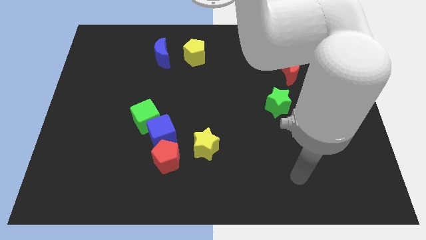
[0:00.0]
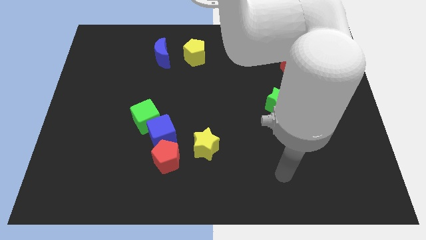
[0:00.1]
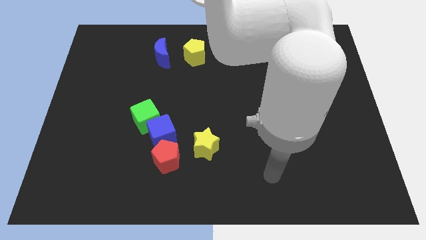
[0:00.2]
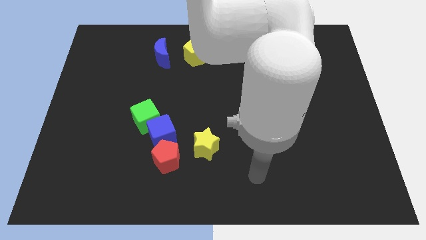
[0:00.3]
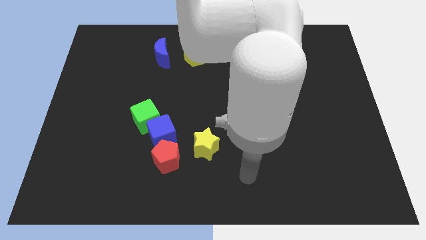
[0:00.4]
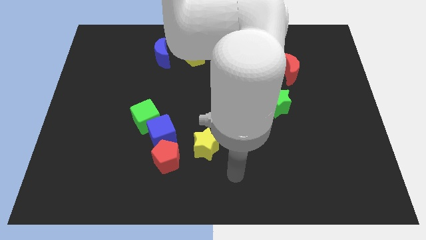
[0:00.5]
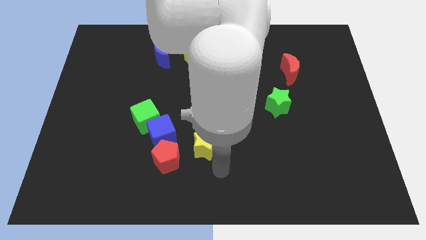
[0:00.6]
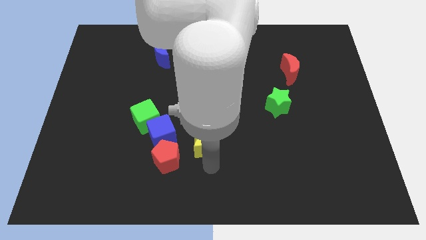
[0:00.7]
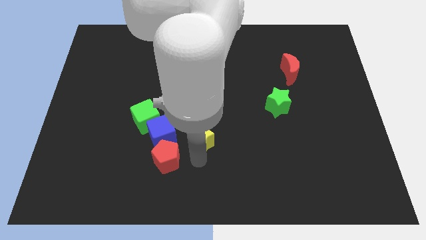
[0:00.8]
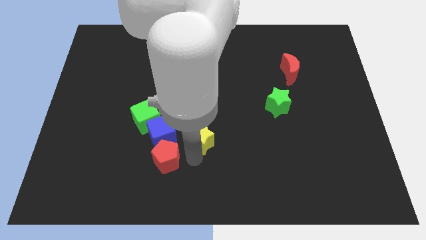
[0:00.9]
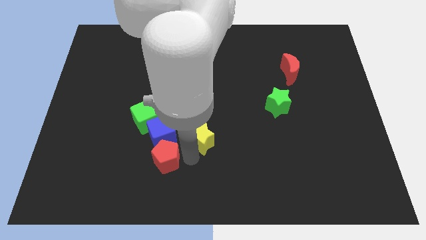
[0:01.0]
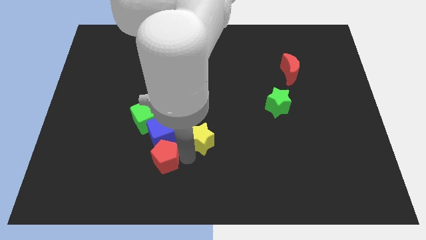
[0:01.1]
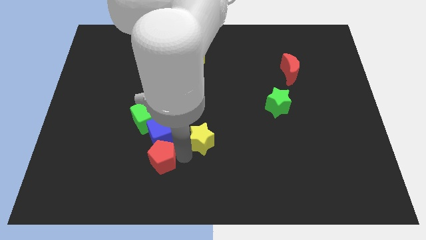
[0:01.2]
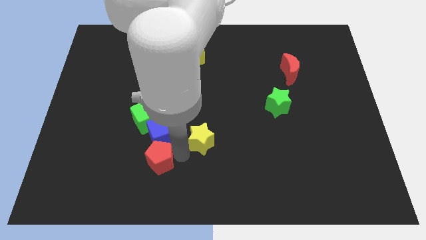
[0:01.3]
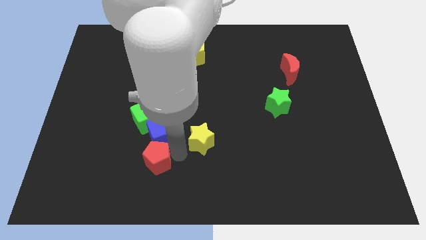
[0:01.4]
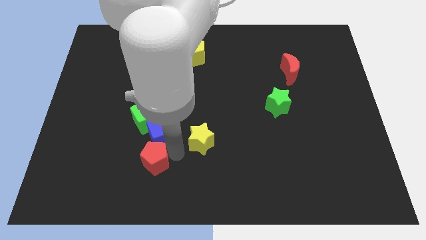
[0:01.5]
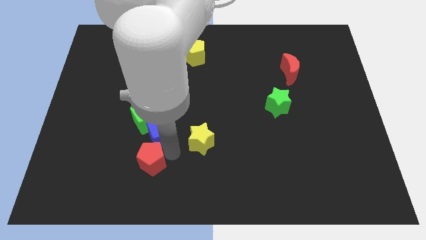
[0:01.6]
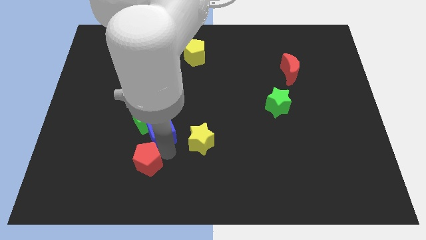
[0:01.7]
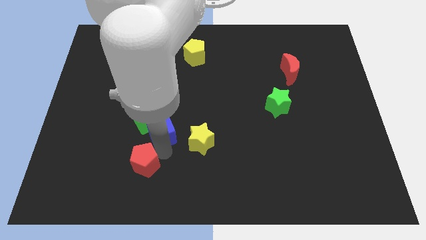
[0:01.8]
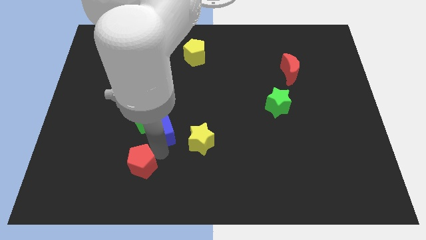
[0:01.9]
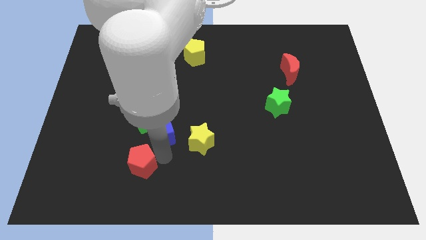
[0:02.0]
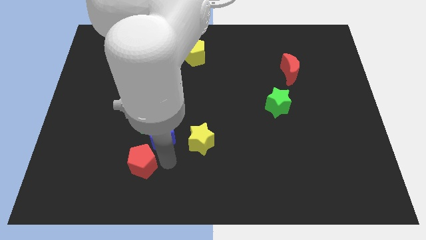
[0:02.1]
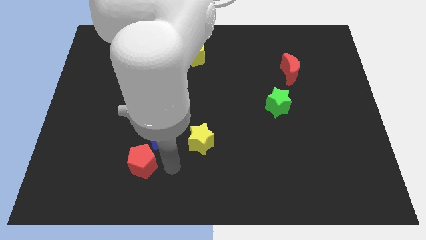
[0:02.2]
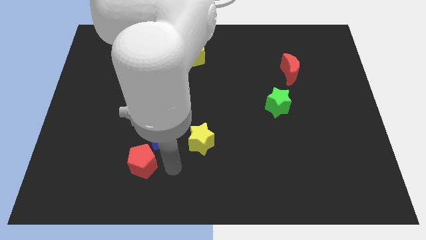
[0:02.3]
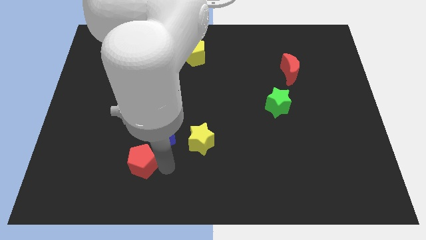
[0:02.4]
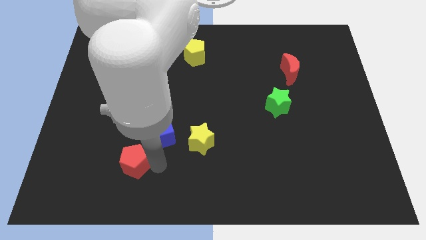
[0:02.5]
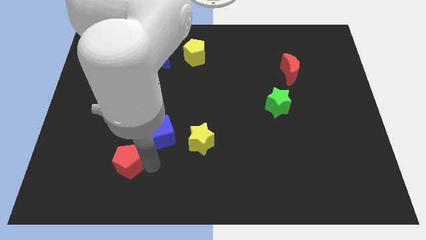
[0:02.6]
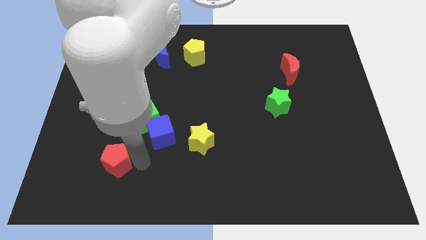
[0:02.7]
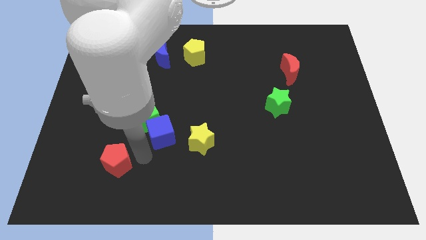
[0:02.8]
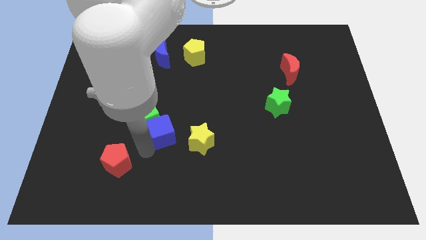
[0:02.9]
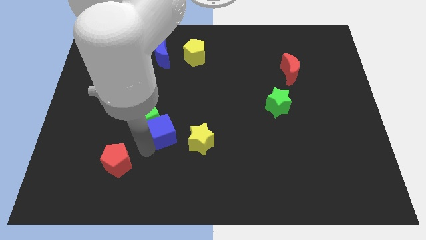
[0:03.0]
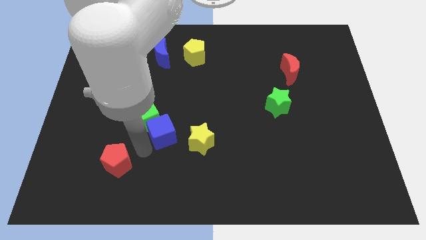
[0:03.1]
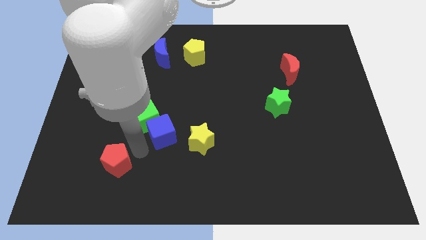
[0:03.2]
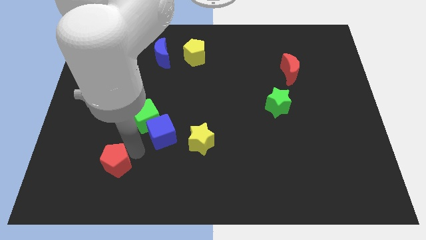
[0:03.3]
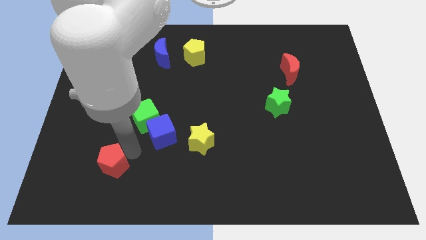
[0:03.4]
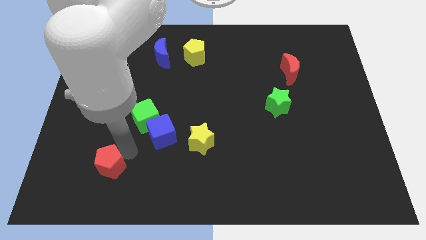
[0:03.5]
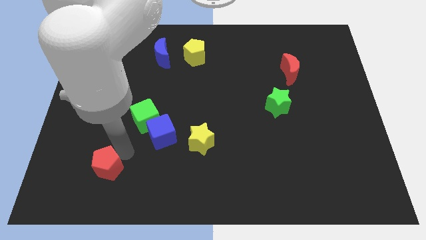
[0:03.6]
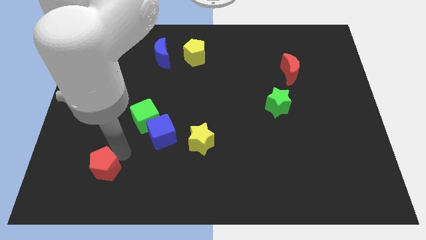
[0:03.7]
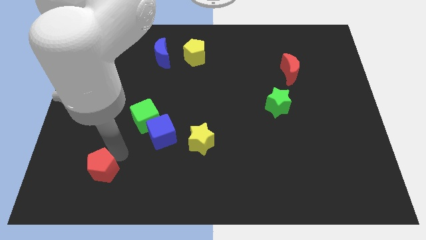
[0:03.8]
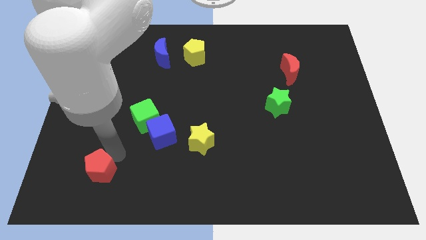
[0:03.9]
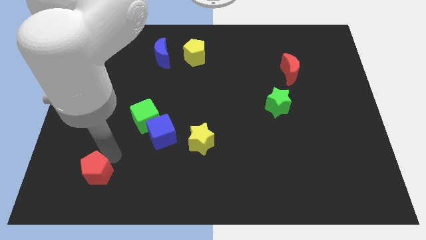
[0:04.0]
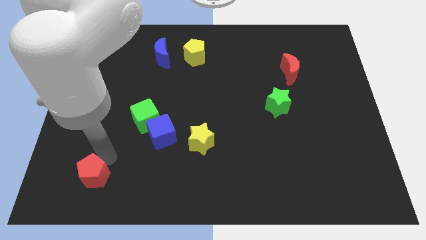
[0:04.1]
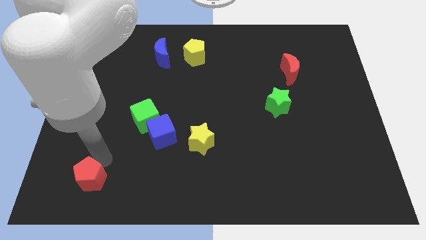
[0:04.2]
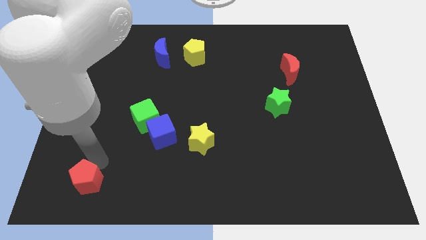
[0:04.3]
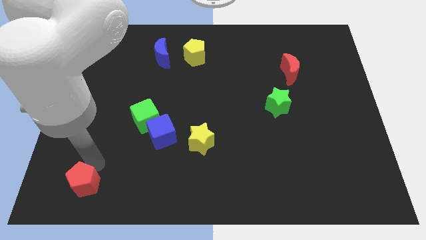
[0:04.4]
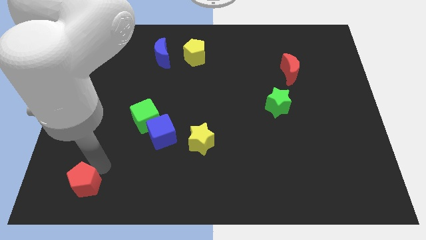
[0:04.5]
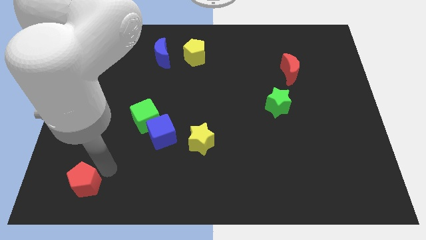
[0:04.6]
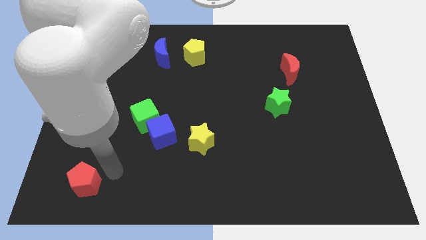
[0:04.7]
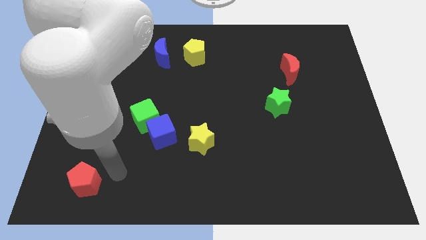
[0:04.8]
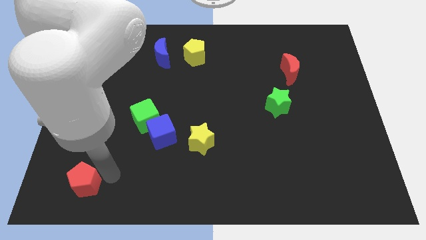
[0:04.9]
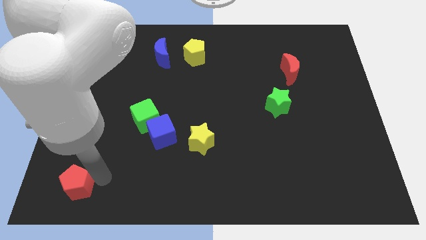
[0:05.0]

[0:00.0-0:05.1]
move the red pentagon to the bottom left corner

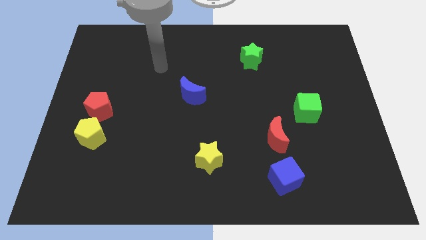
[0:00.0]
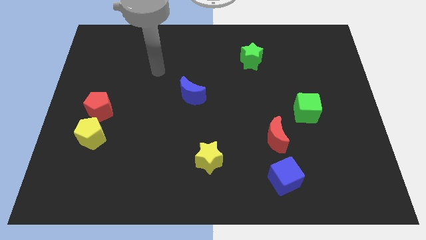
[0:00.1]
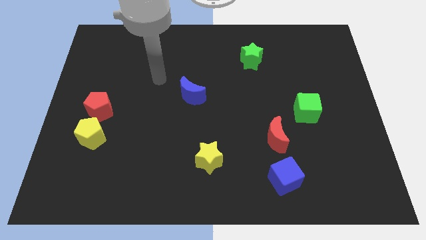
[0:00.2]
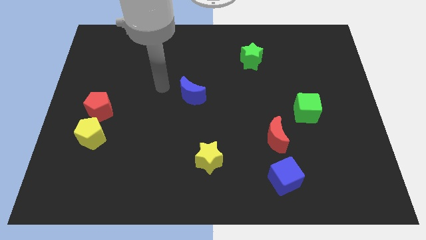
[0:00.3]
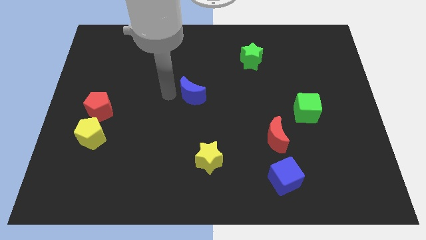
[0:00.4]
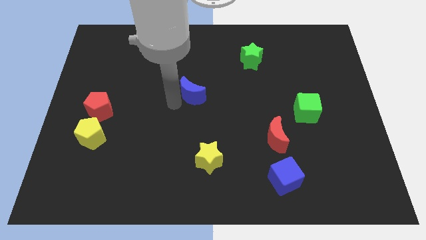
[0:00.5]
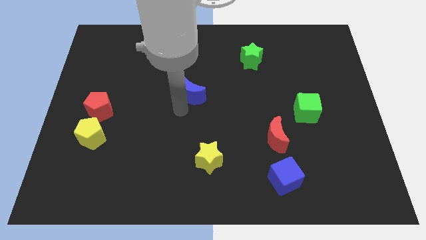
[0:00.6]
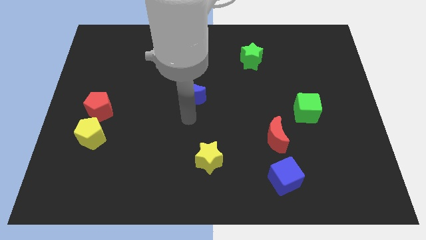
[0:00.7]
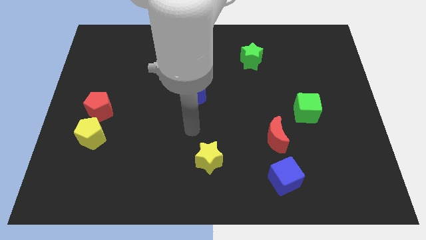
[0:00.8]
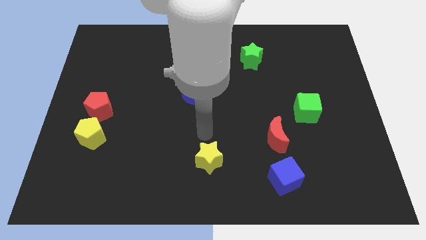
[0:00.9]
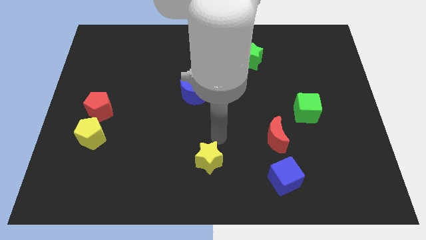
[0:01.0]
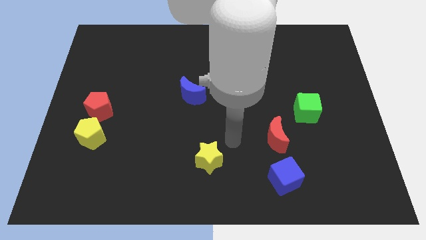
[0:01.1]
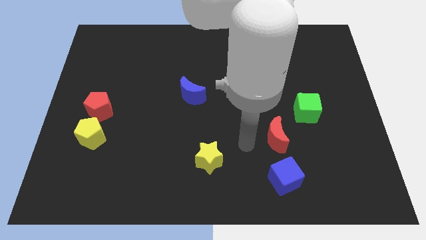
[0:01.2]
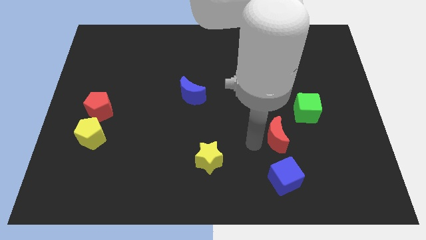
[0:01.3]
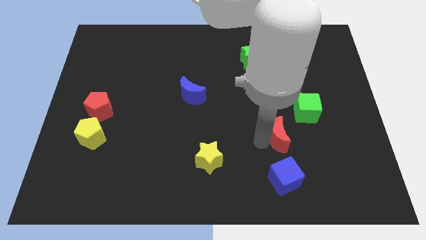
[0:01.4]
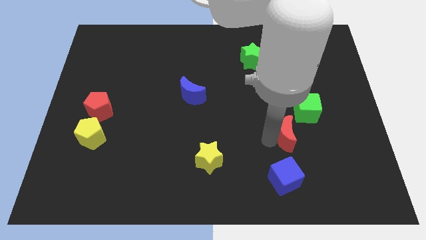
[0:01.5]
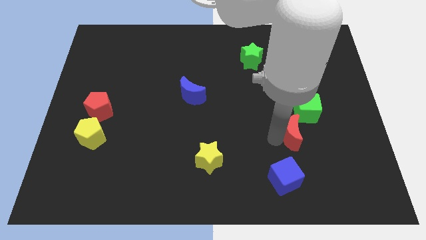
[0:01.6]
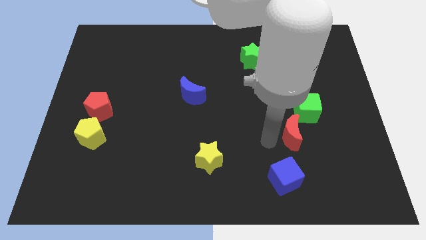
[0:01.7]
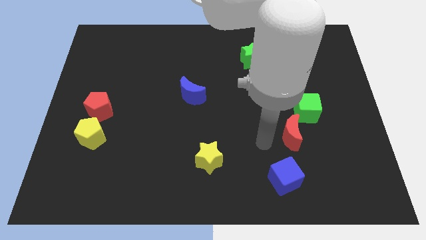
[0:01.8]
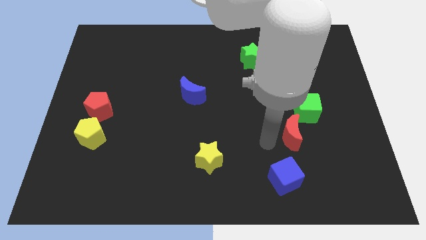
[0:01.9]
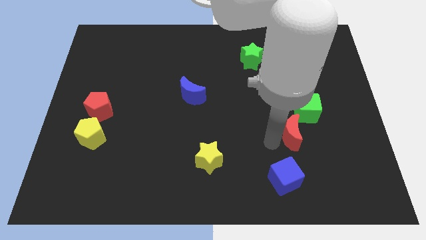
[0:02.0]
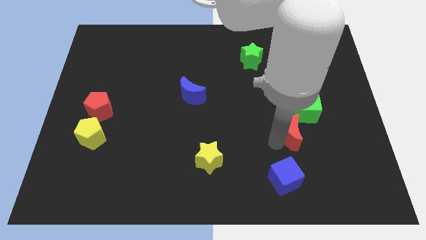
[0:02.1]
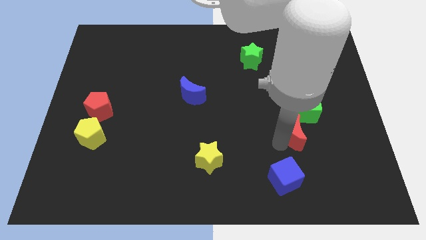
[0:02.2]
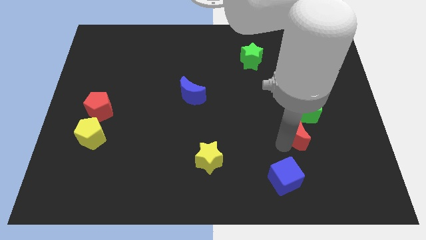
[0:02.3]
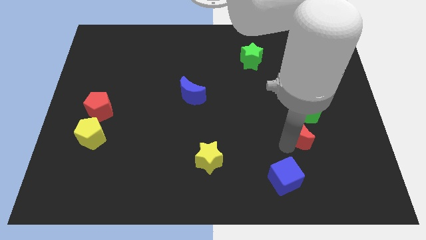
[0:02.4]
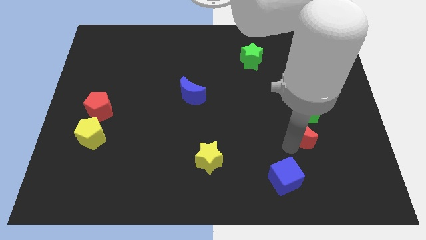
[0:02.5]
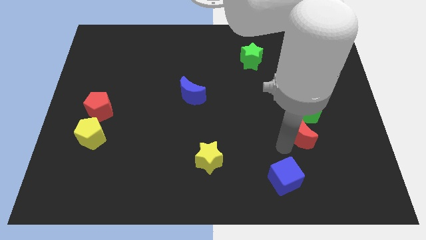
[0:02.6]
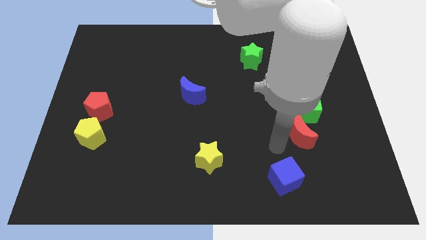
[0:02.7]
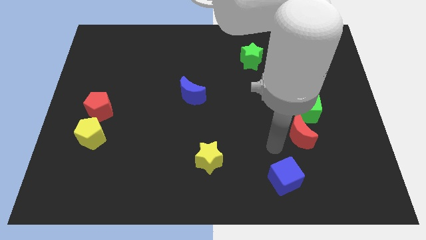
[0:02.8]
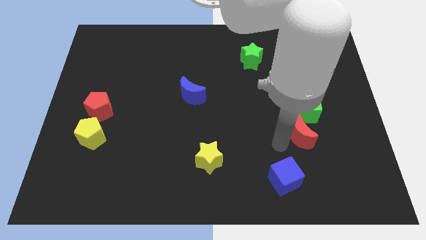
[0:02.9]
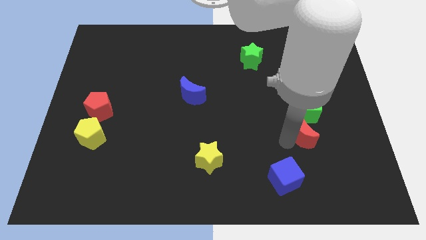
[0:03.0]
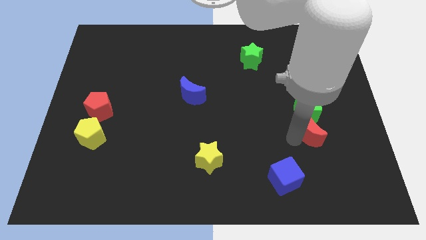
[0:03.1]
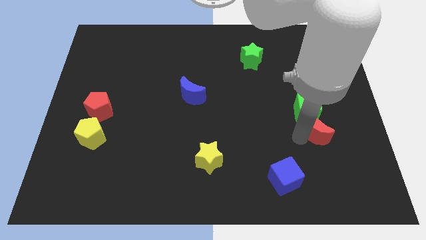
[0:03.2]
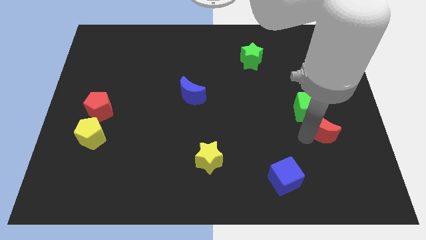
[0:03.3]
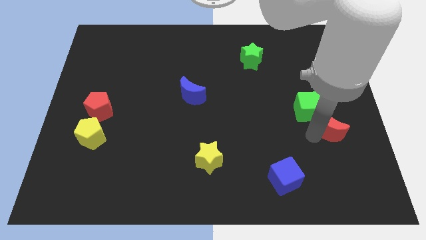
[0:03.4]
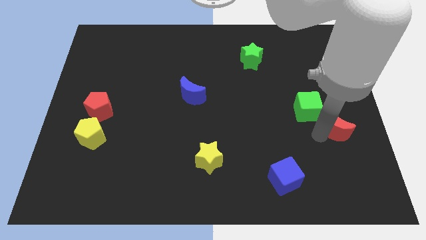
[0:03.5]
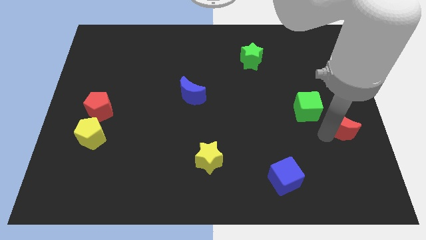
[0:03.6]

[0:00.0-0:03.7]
push the red moon to the right side
